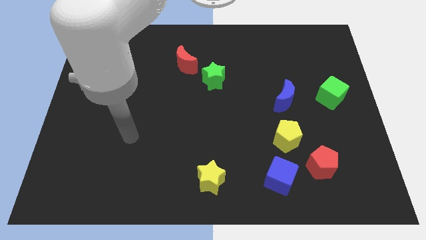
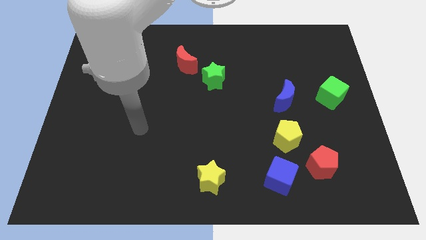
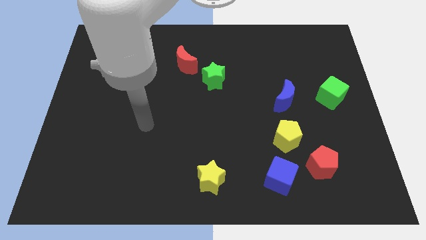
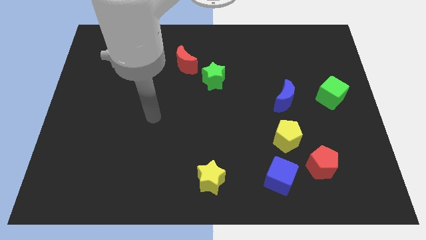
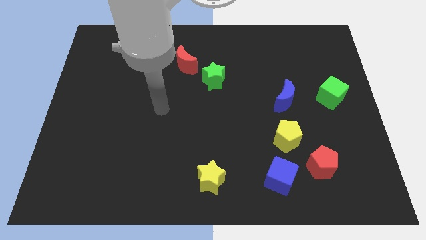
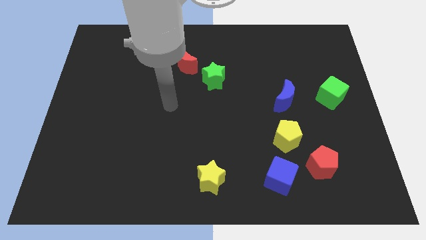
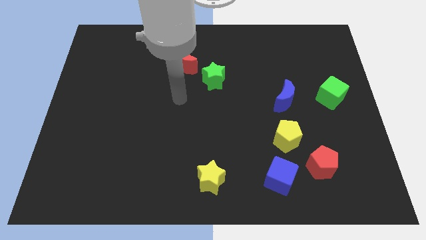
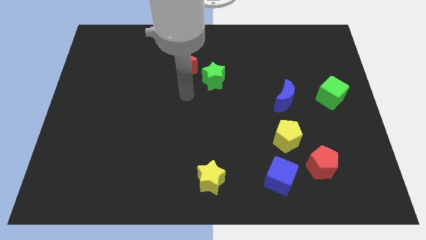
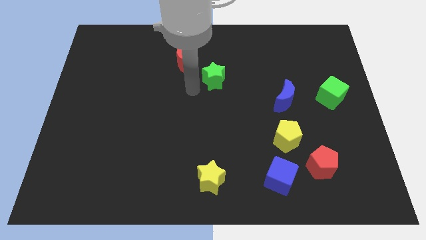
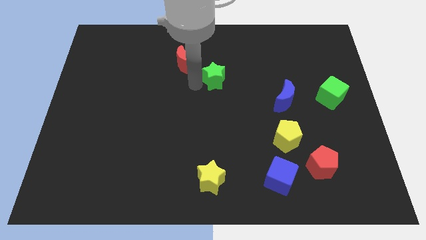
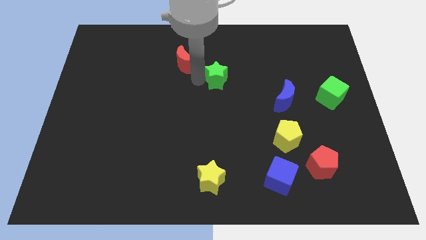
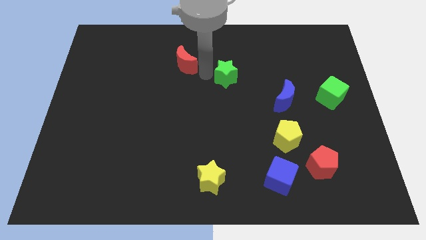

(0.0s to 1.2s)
pull the red moon apart from the green star

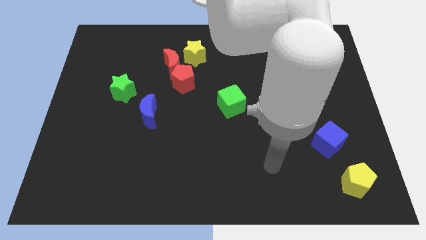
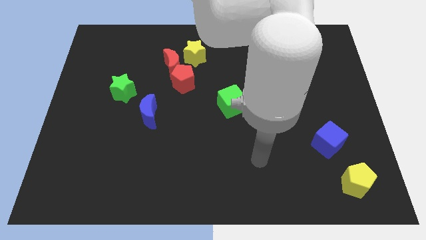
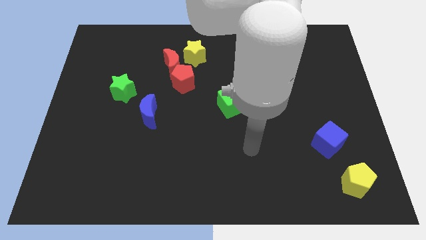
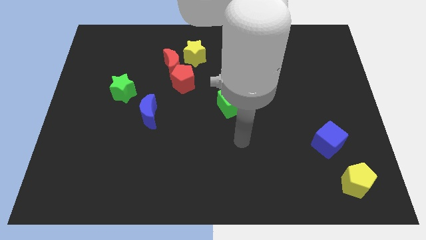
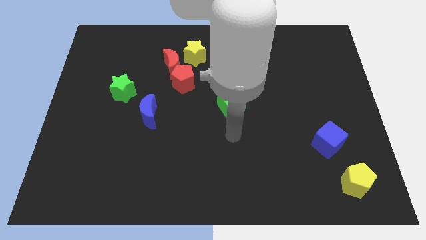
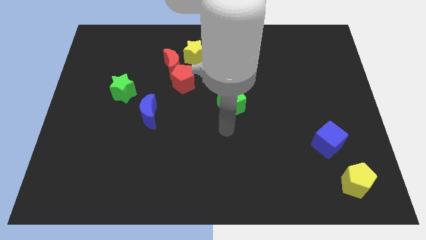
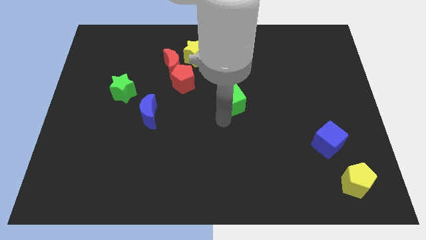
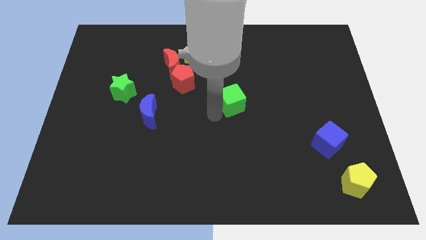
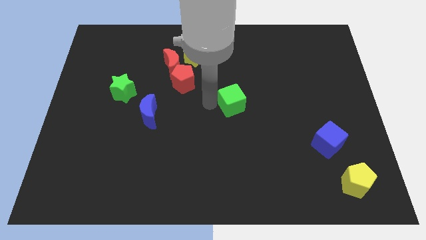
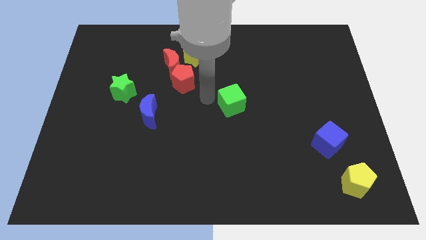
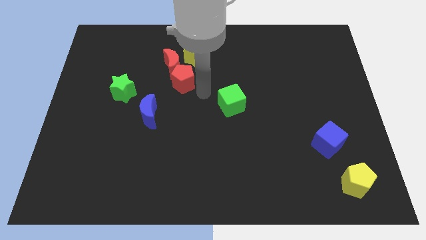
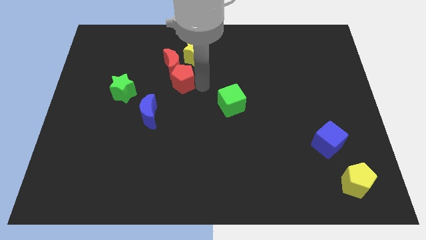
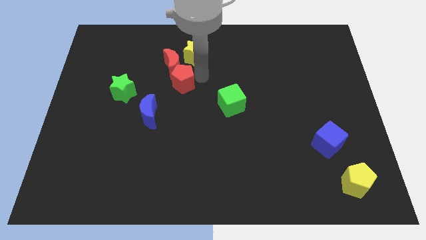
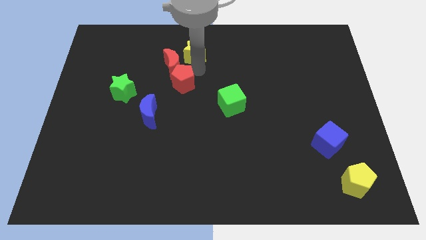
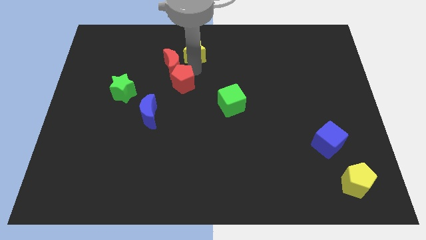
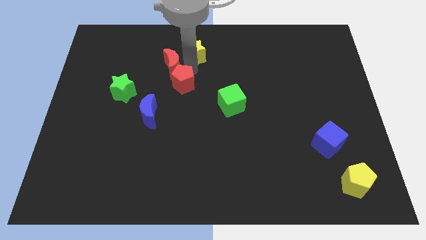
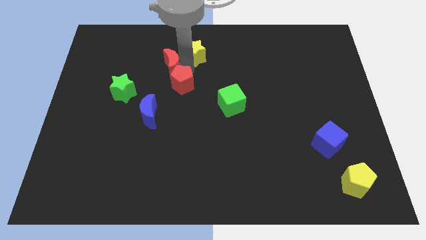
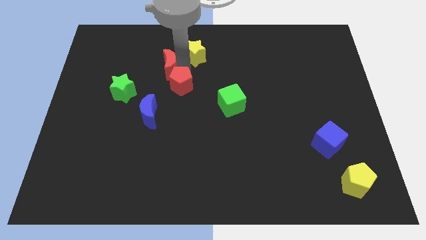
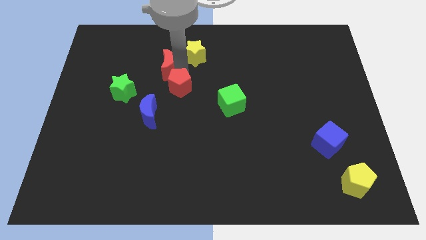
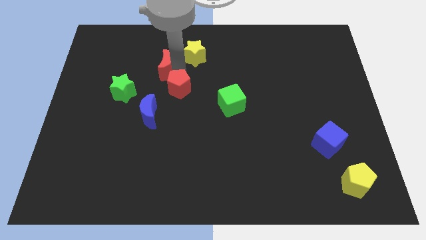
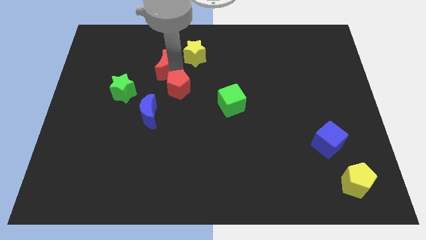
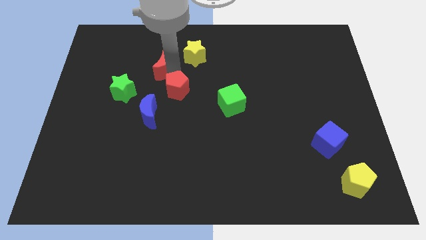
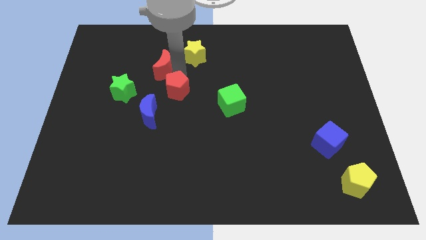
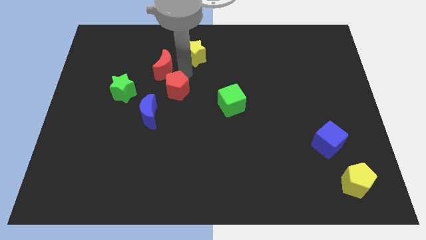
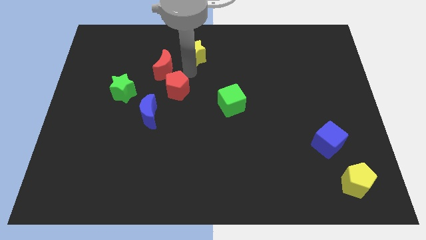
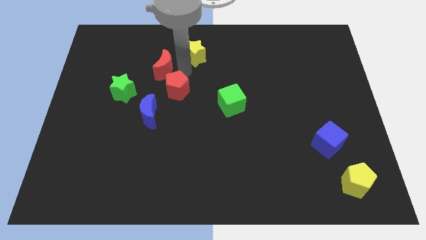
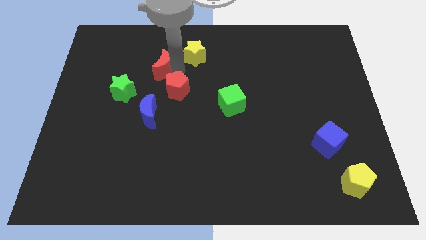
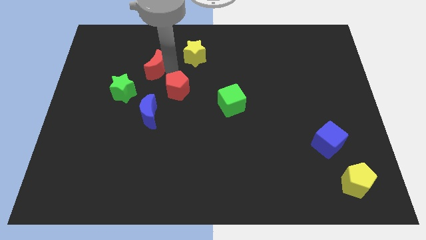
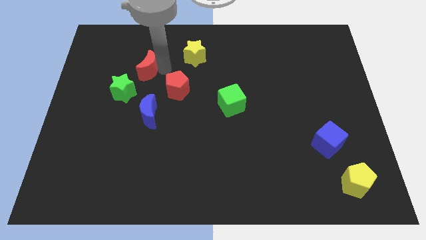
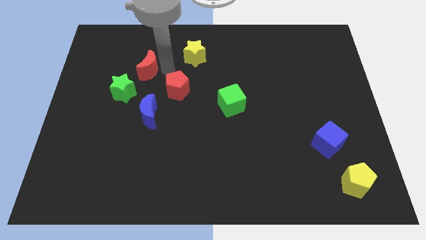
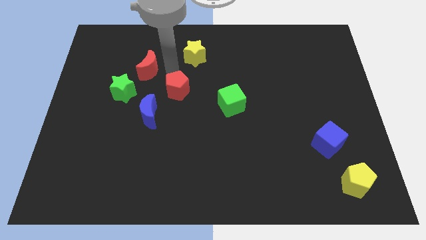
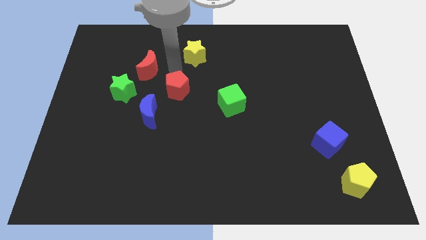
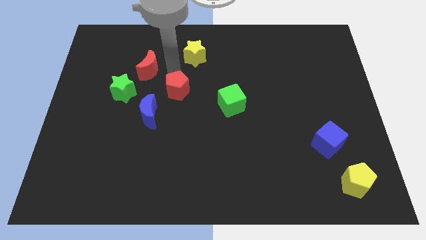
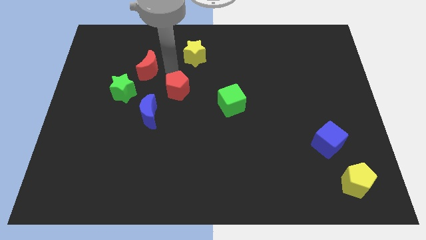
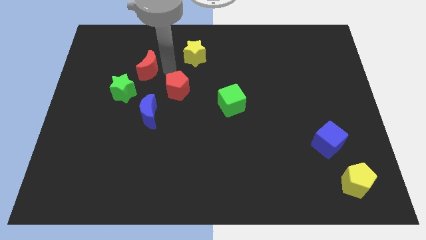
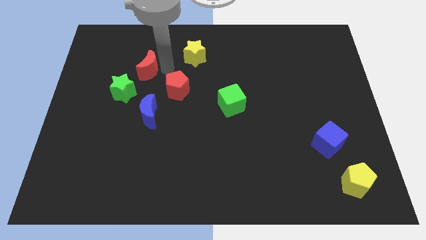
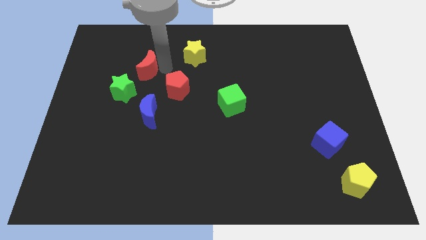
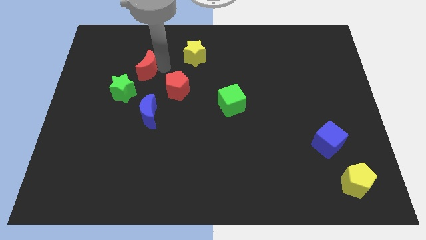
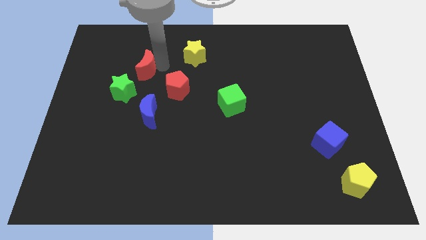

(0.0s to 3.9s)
move the red moon away from the red pentagon and yellow star

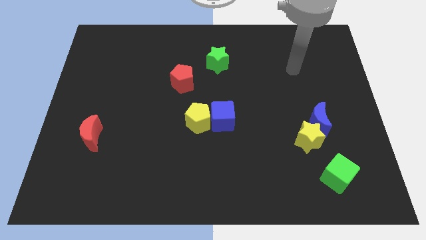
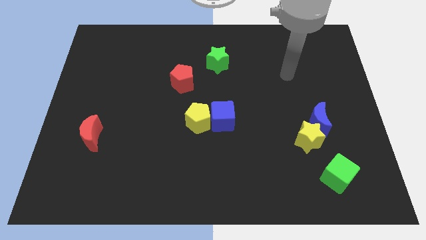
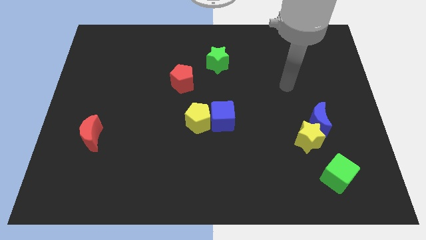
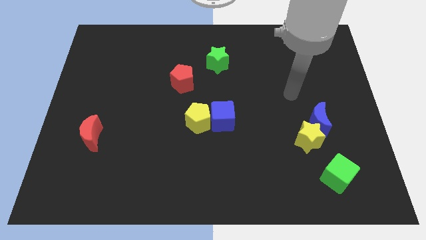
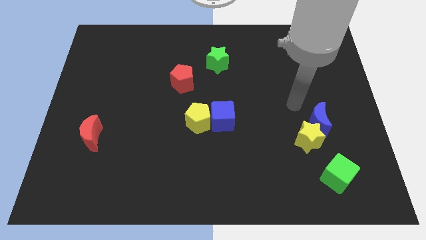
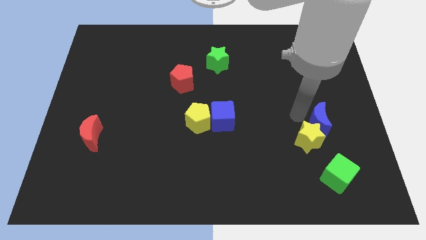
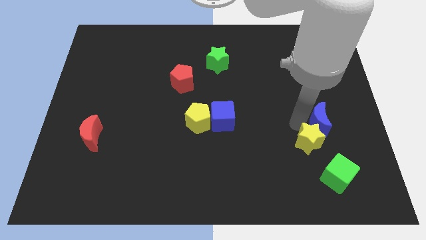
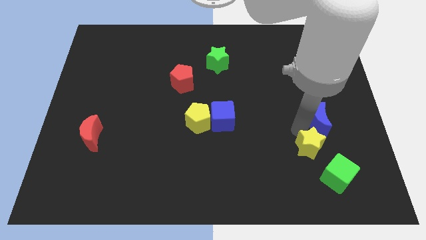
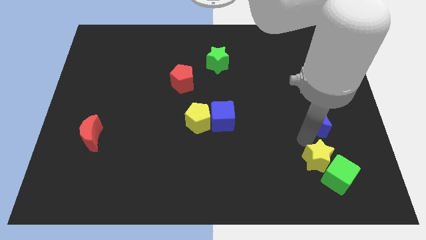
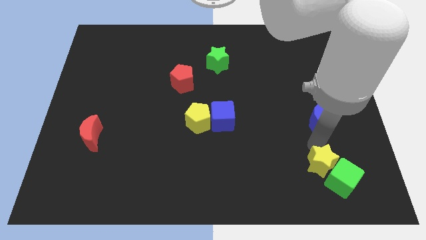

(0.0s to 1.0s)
separate the blue moon from the yellow star

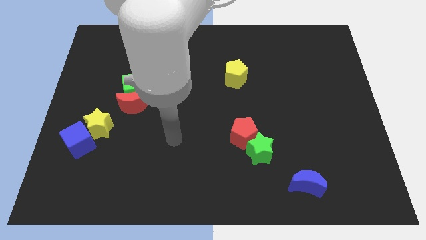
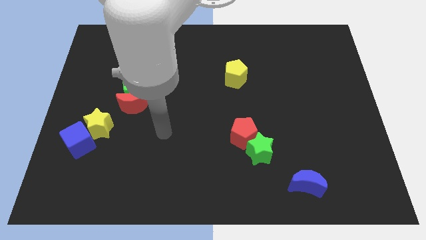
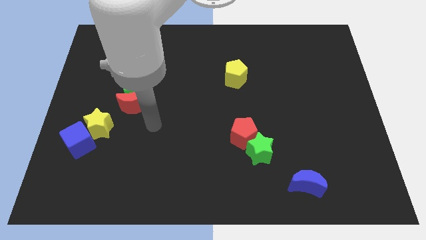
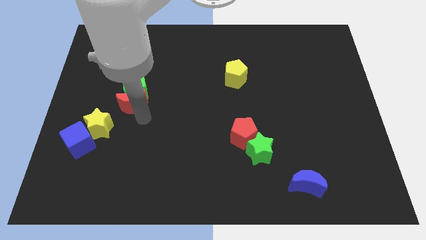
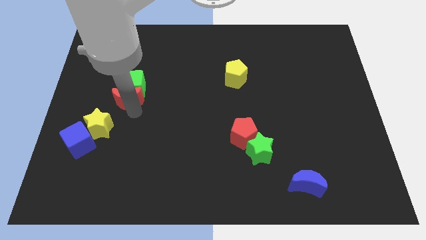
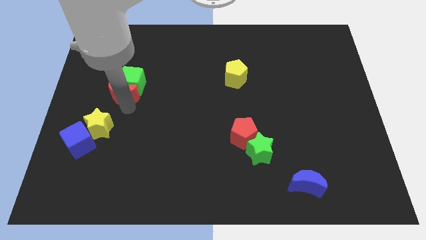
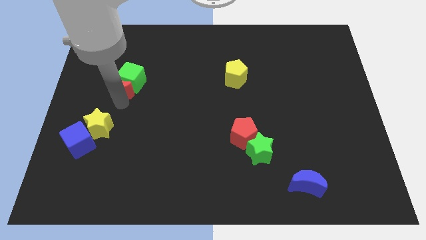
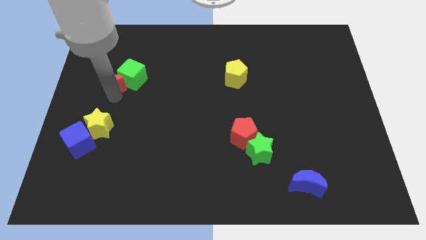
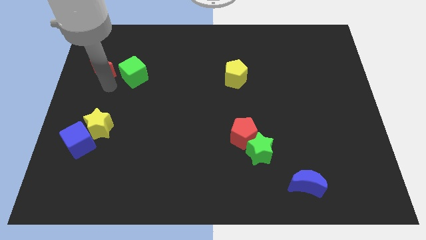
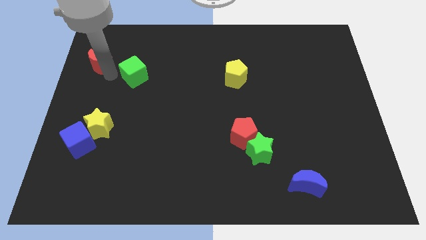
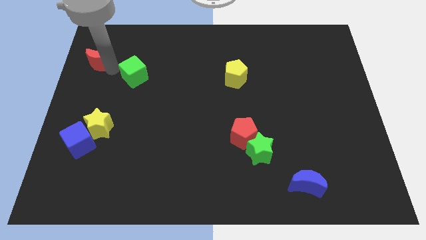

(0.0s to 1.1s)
pull the green cube apart from the red moon

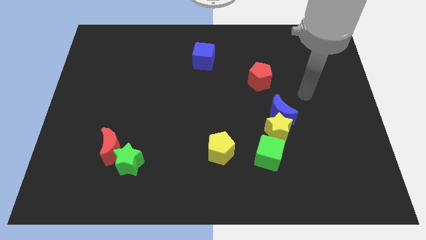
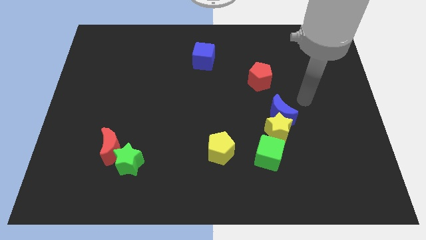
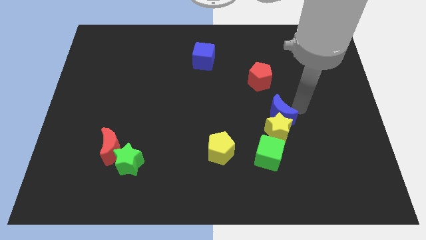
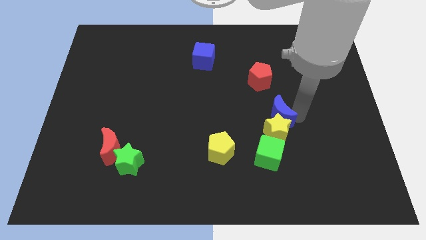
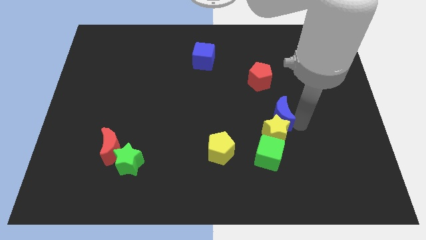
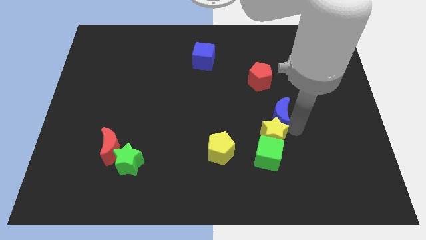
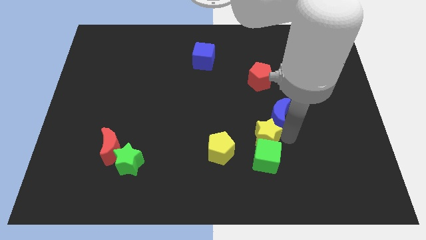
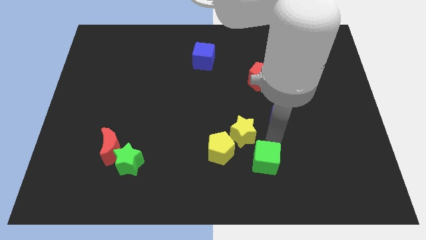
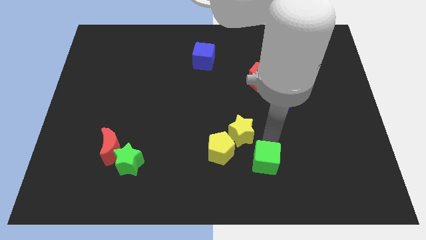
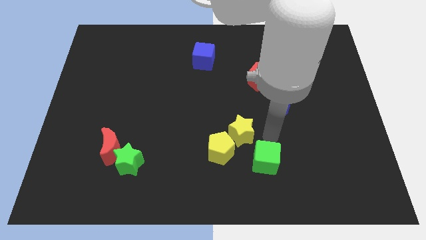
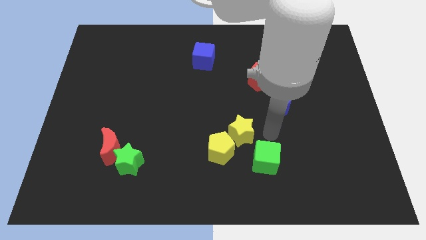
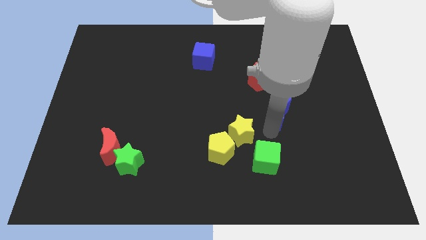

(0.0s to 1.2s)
move the blue moon away from the yellow star

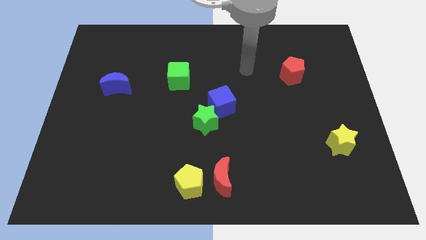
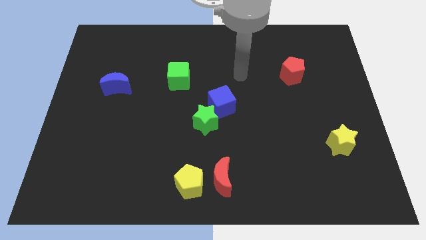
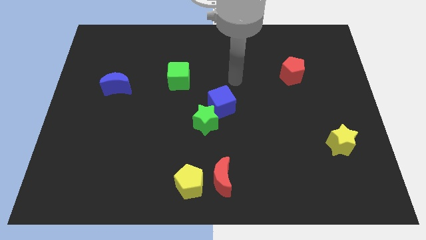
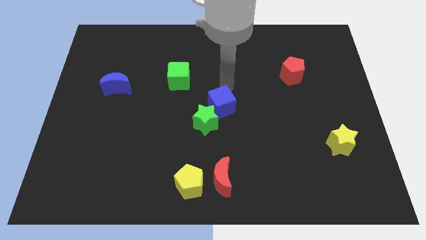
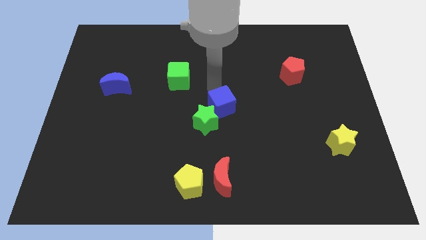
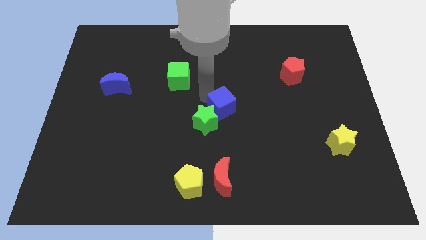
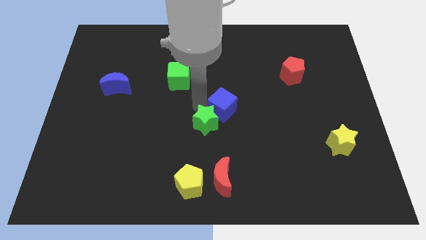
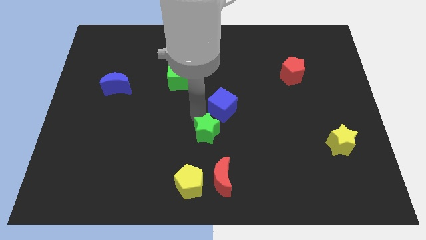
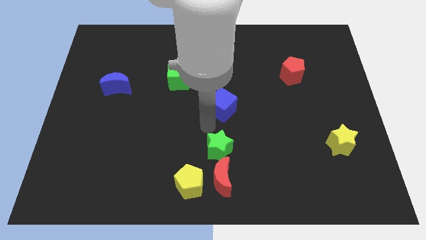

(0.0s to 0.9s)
separate the blue cube from the green star

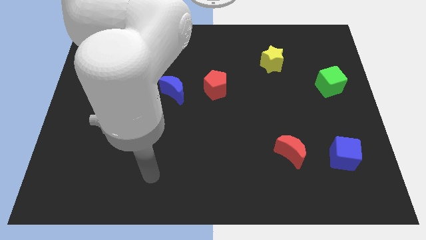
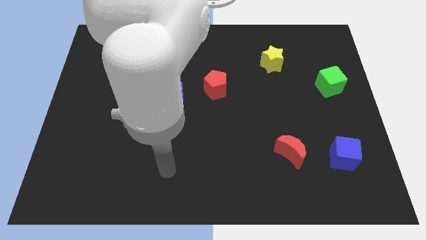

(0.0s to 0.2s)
move the red pentagon away from the blue moon
